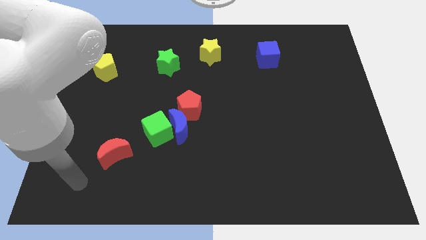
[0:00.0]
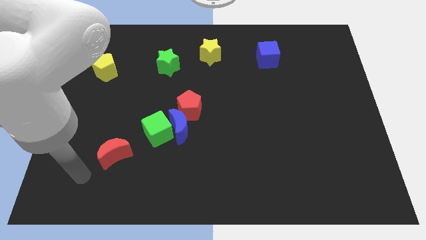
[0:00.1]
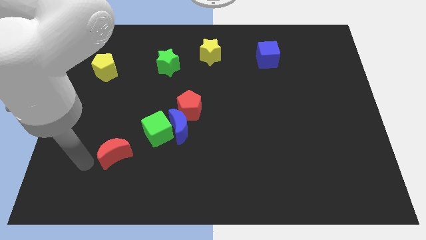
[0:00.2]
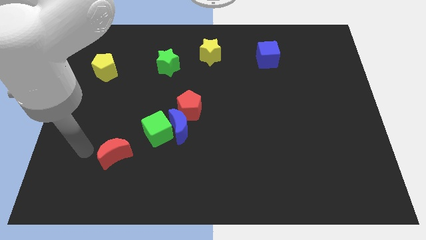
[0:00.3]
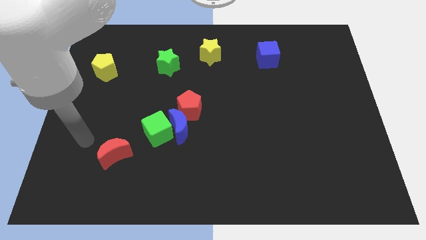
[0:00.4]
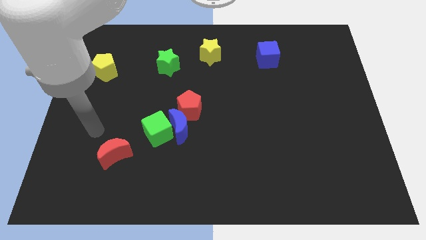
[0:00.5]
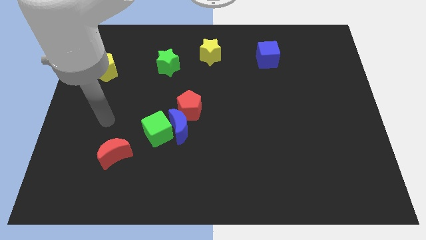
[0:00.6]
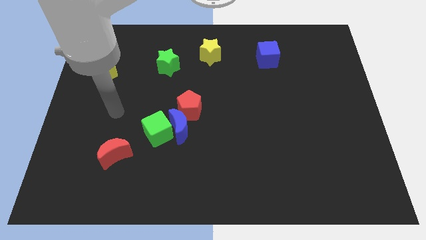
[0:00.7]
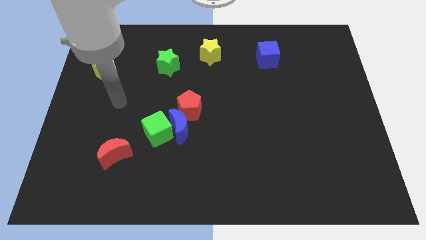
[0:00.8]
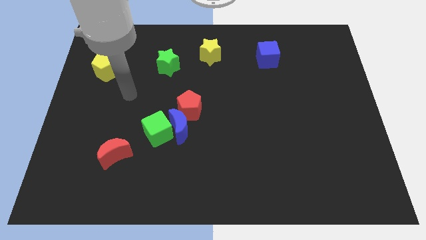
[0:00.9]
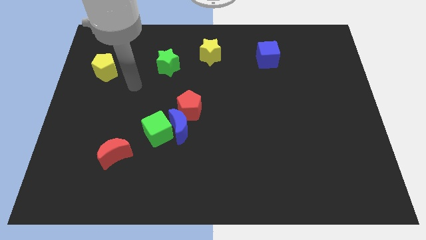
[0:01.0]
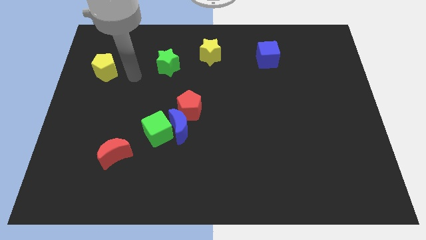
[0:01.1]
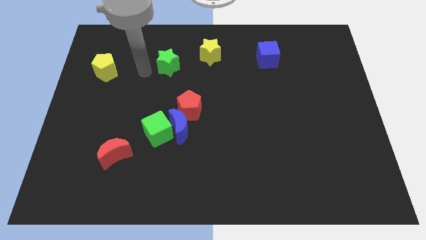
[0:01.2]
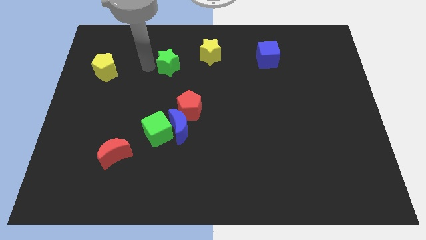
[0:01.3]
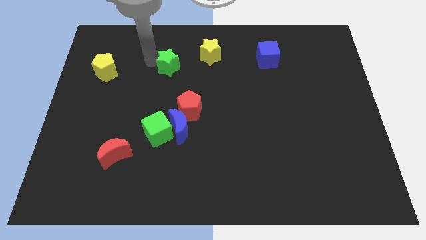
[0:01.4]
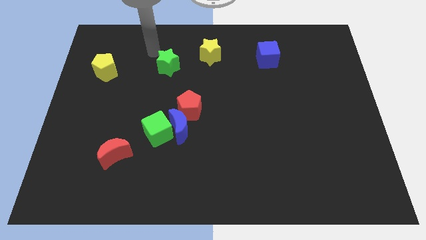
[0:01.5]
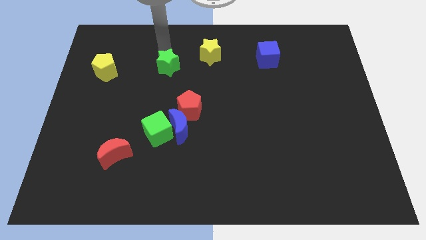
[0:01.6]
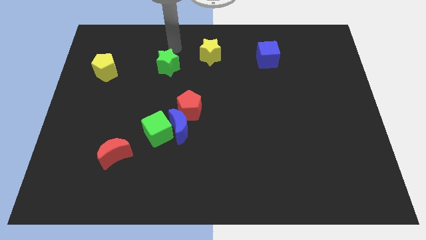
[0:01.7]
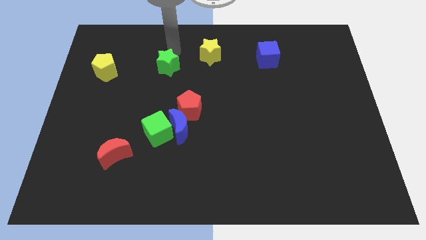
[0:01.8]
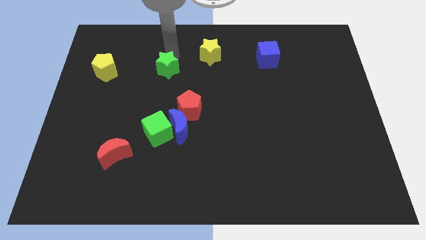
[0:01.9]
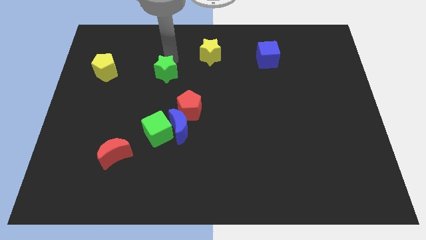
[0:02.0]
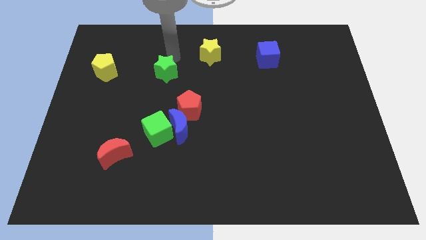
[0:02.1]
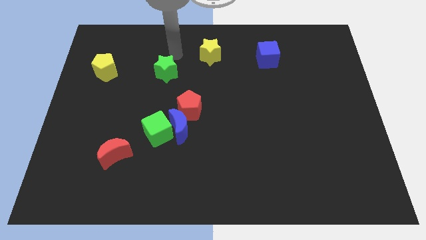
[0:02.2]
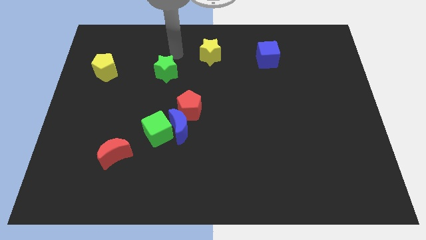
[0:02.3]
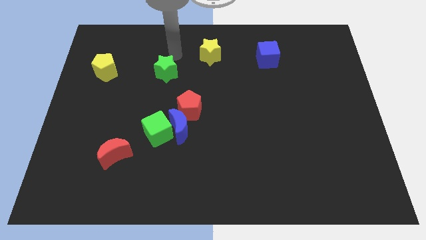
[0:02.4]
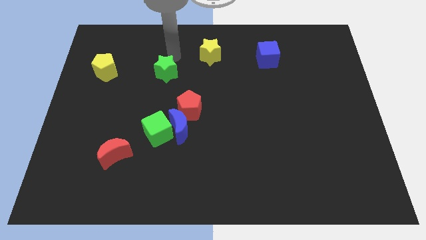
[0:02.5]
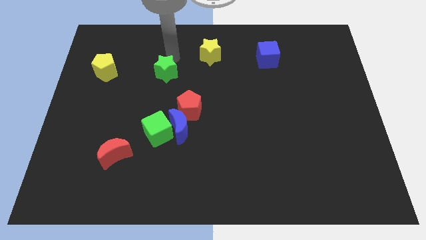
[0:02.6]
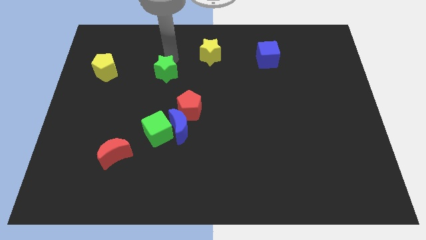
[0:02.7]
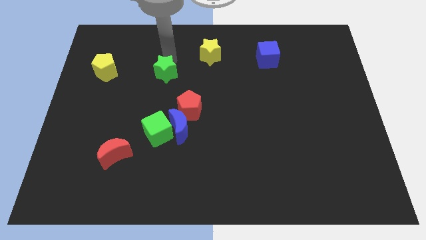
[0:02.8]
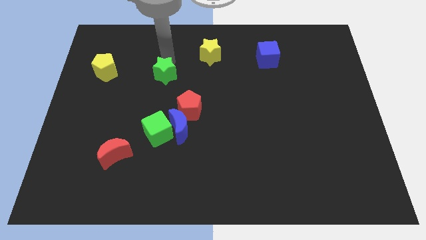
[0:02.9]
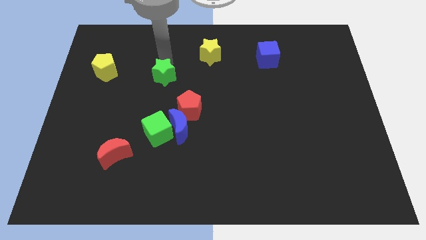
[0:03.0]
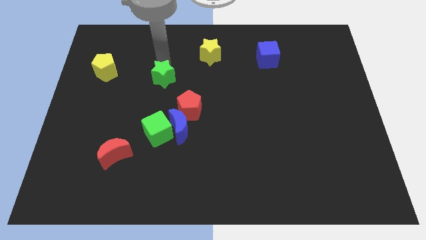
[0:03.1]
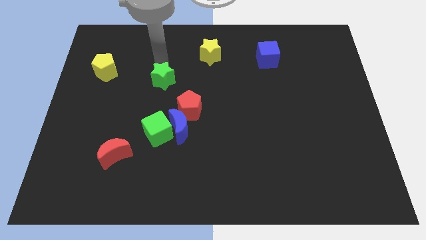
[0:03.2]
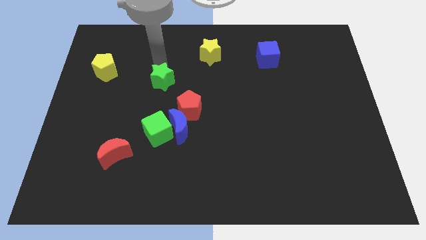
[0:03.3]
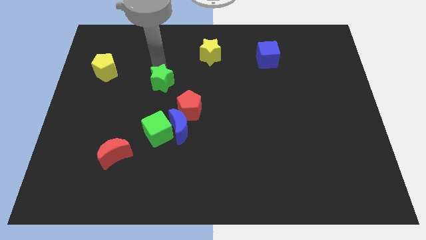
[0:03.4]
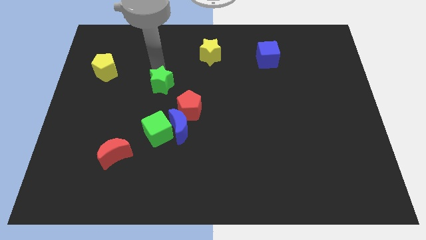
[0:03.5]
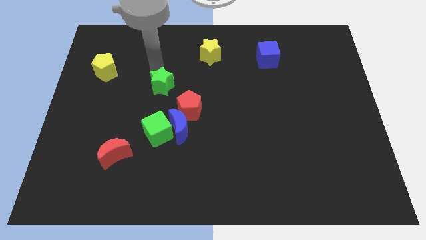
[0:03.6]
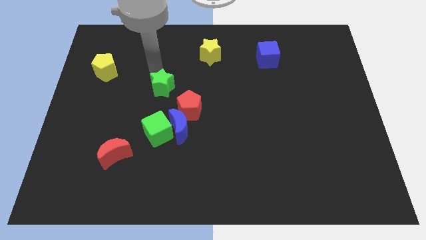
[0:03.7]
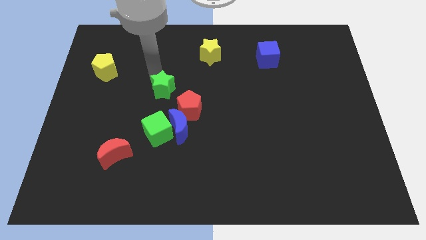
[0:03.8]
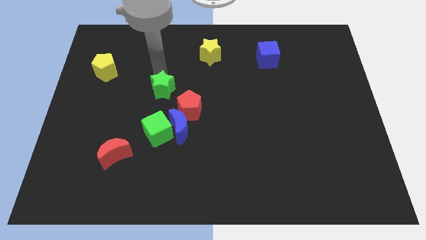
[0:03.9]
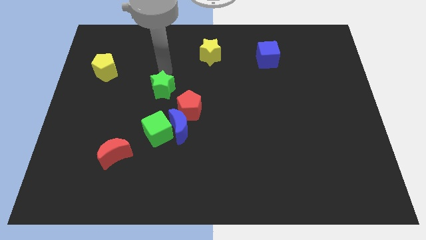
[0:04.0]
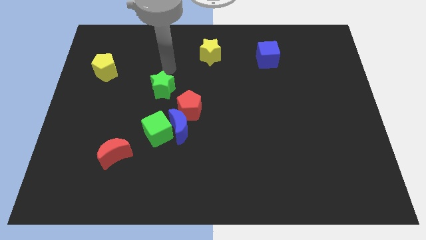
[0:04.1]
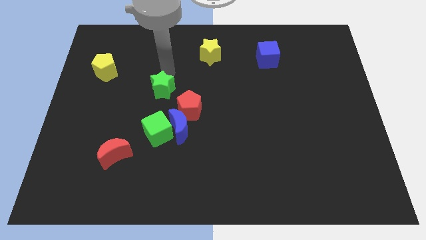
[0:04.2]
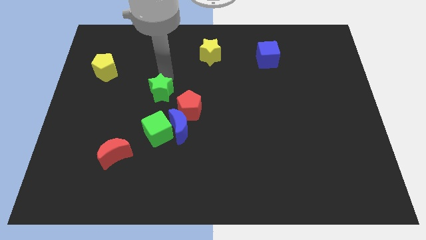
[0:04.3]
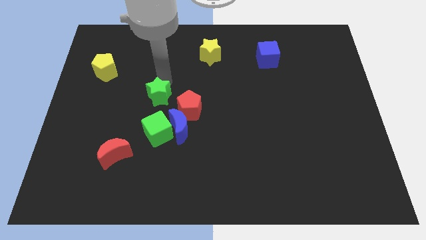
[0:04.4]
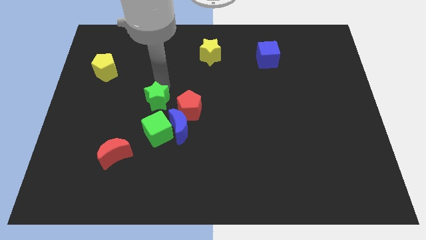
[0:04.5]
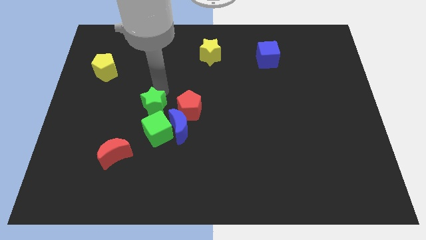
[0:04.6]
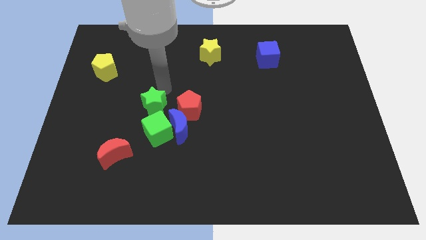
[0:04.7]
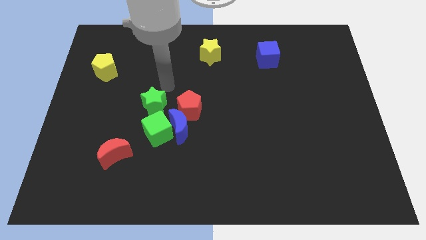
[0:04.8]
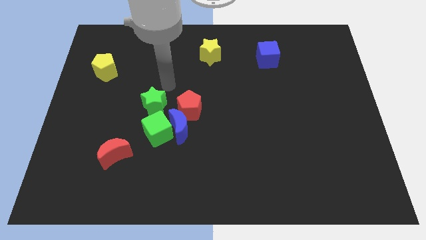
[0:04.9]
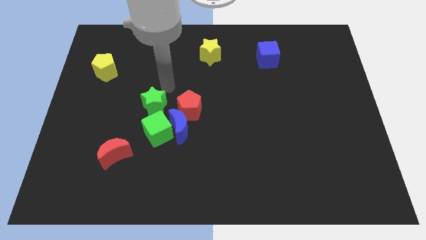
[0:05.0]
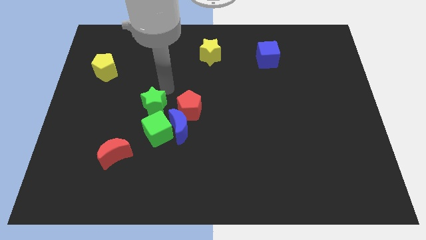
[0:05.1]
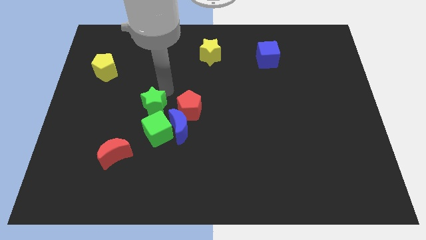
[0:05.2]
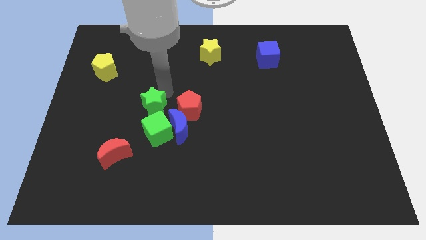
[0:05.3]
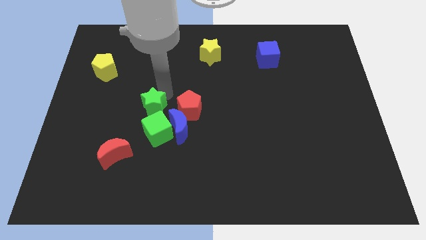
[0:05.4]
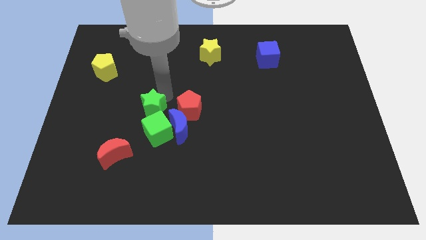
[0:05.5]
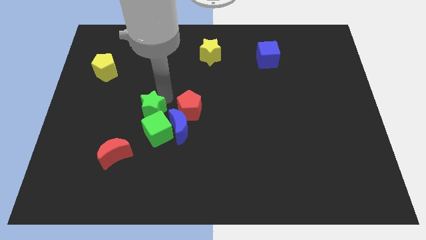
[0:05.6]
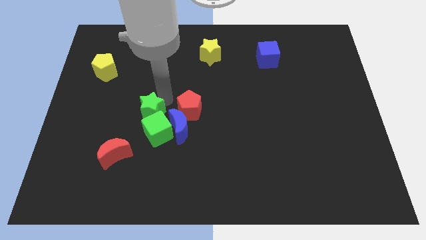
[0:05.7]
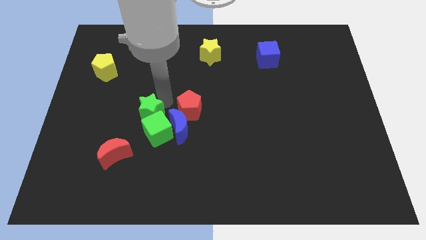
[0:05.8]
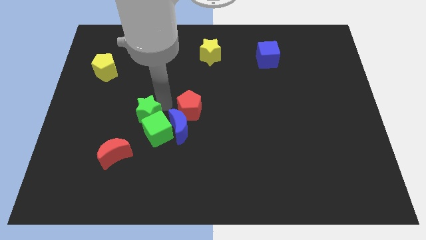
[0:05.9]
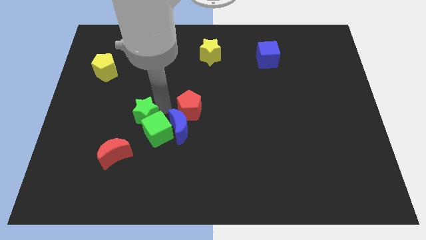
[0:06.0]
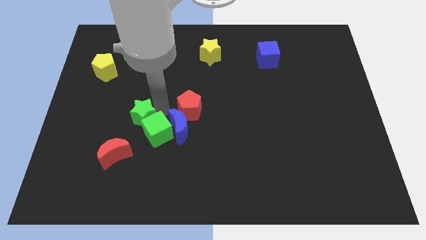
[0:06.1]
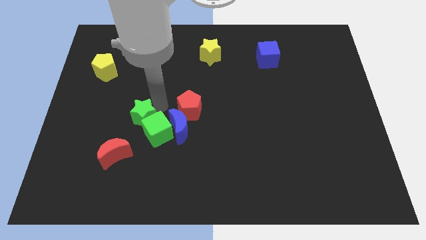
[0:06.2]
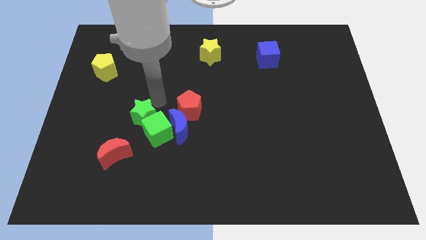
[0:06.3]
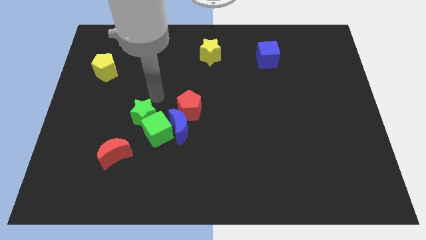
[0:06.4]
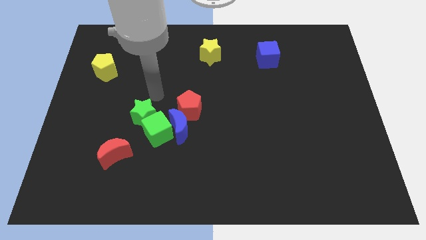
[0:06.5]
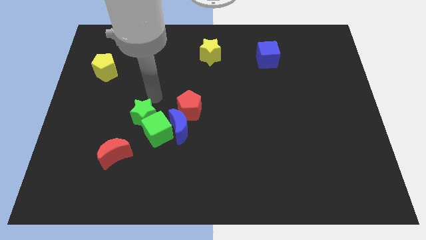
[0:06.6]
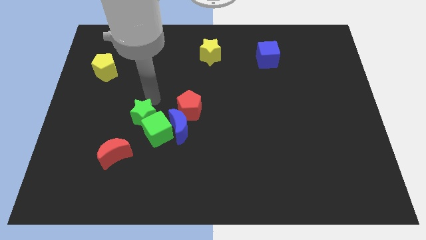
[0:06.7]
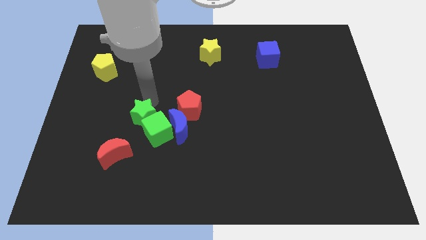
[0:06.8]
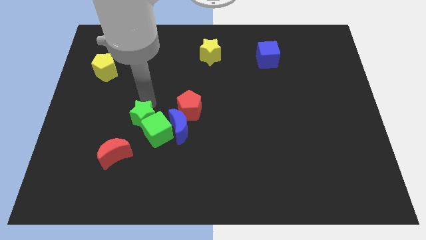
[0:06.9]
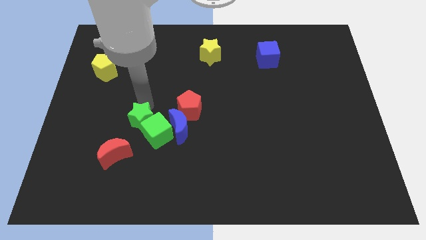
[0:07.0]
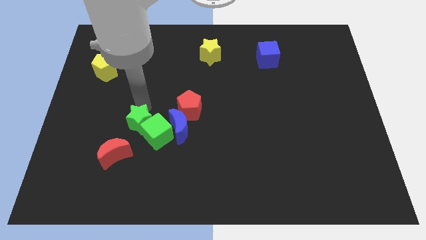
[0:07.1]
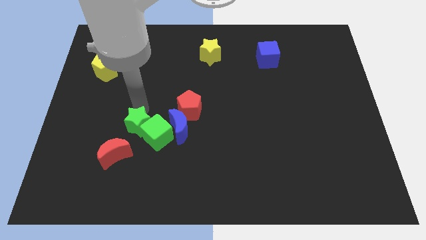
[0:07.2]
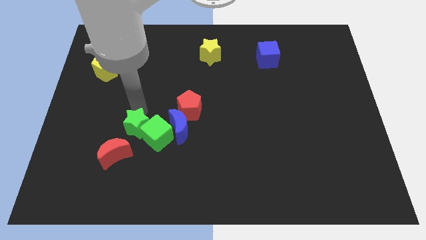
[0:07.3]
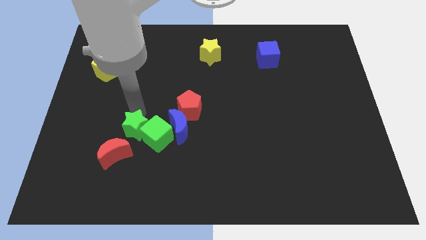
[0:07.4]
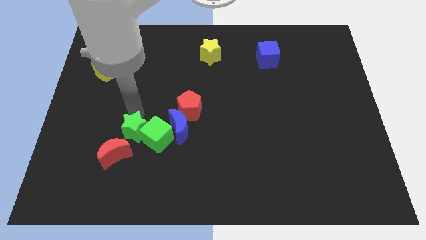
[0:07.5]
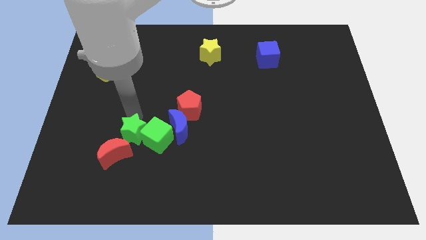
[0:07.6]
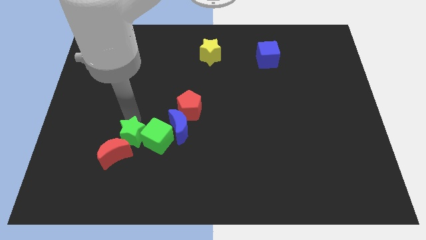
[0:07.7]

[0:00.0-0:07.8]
slide the green star down
